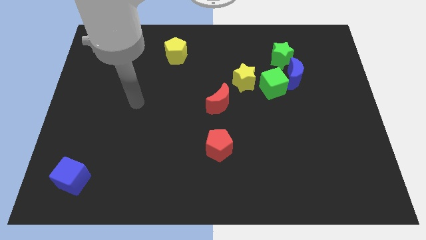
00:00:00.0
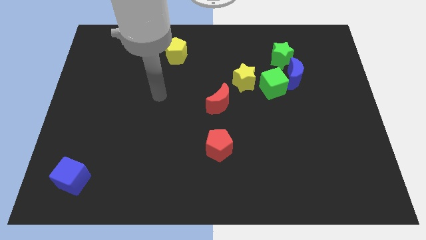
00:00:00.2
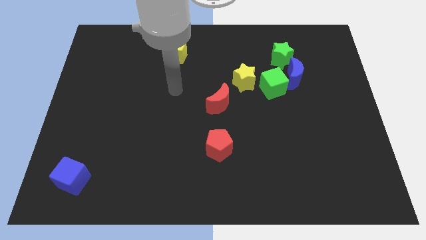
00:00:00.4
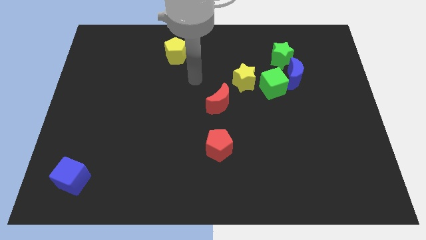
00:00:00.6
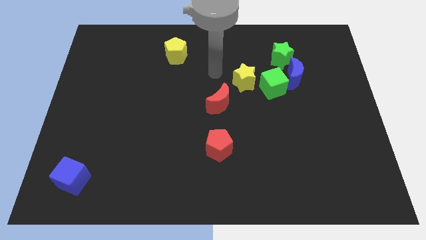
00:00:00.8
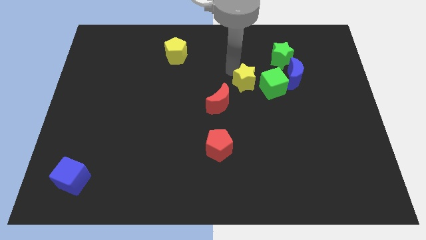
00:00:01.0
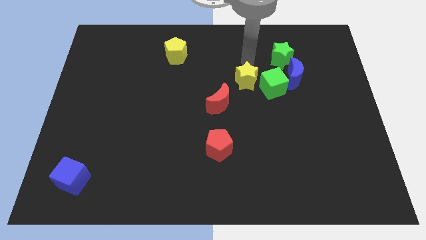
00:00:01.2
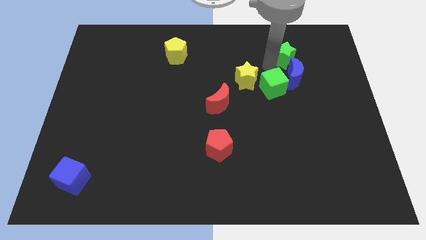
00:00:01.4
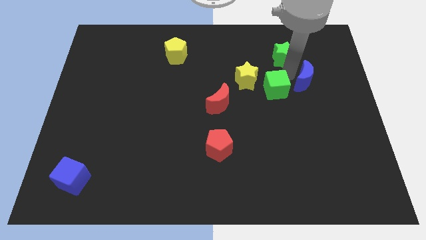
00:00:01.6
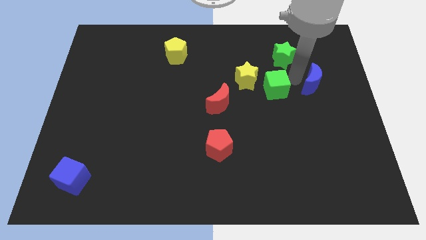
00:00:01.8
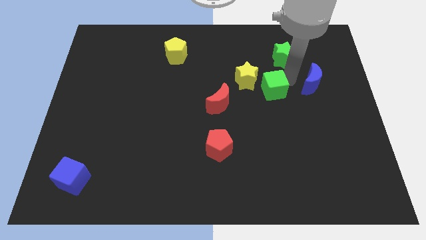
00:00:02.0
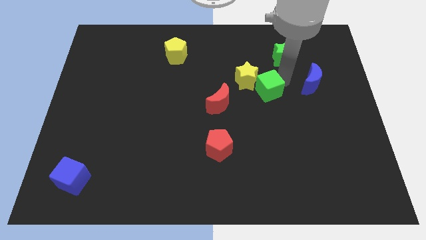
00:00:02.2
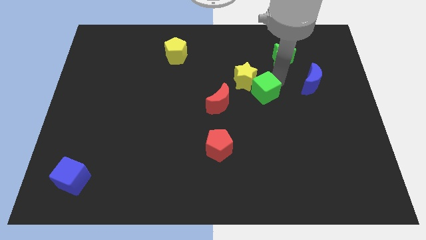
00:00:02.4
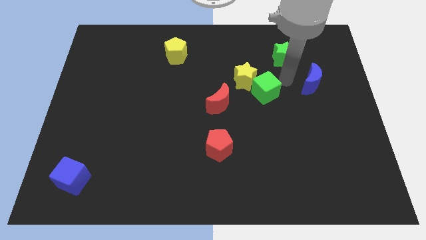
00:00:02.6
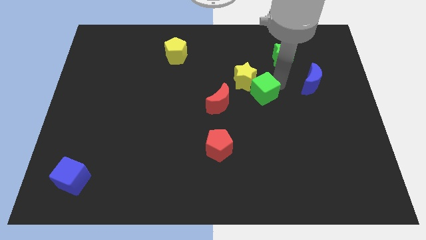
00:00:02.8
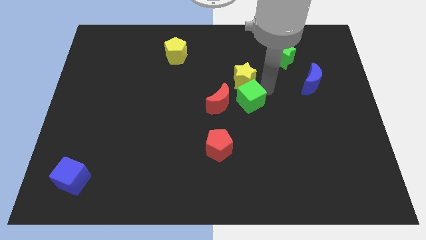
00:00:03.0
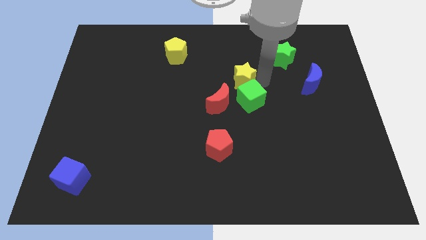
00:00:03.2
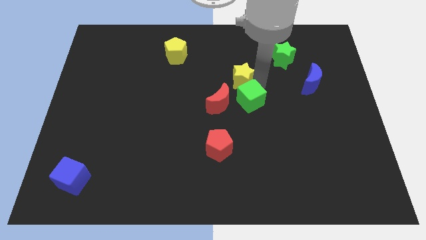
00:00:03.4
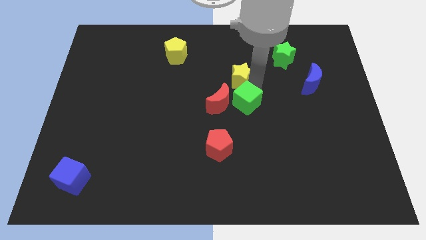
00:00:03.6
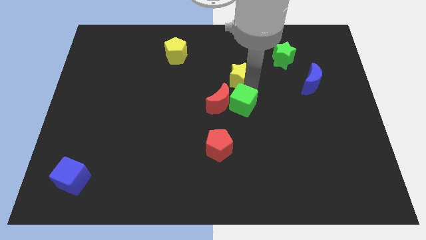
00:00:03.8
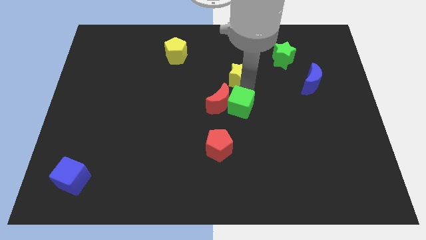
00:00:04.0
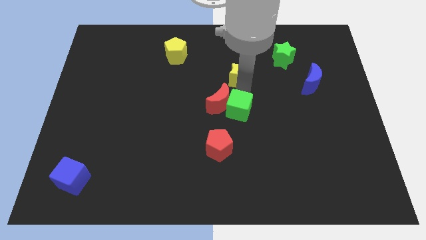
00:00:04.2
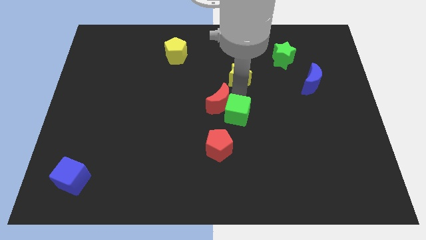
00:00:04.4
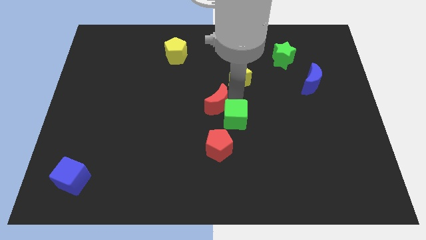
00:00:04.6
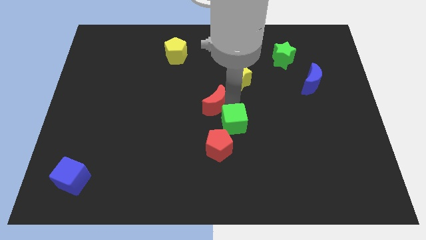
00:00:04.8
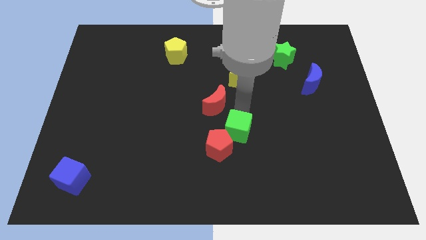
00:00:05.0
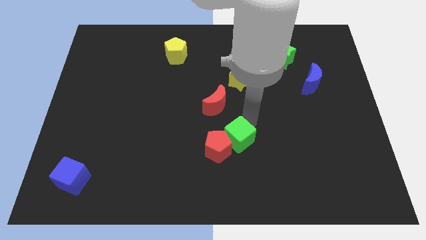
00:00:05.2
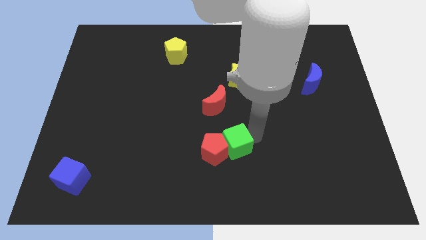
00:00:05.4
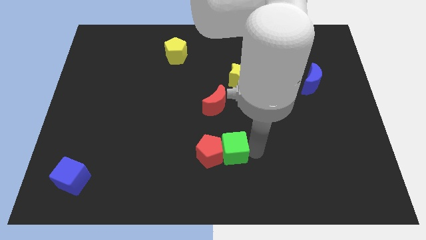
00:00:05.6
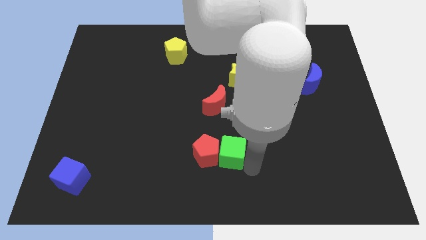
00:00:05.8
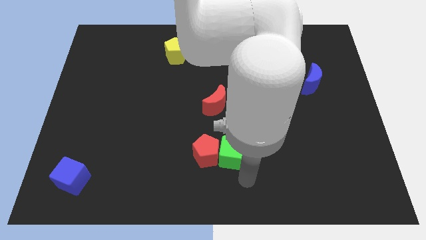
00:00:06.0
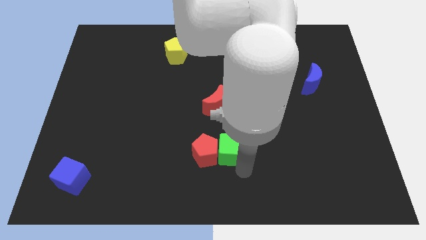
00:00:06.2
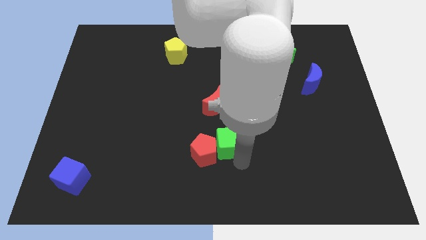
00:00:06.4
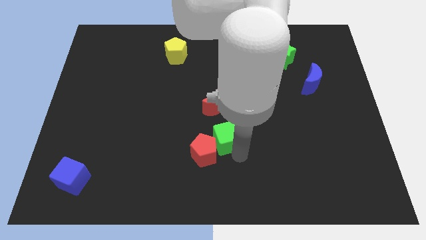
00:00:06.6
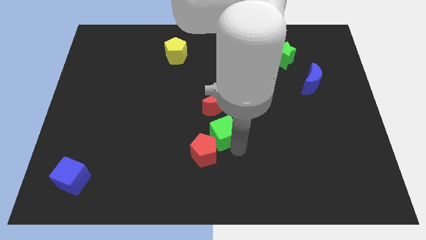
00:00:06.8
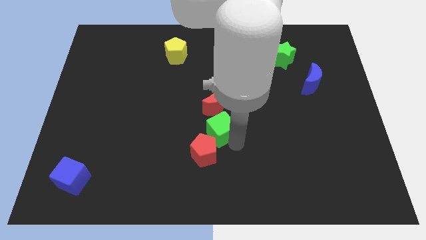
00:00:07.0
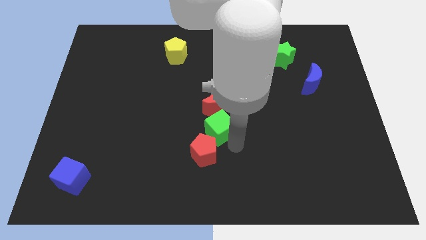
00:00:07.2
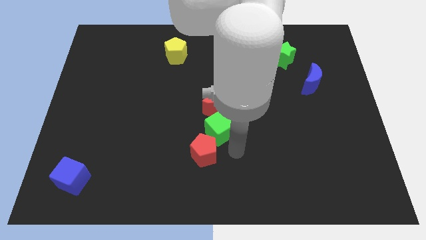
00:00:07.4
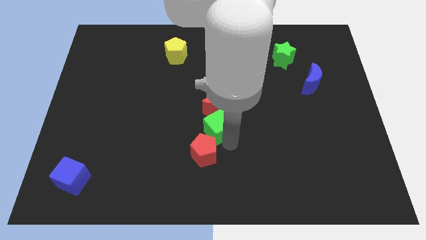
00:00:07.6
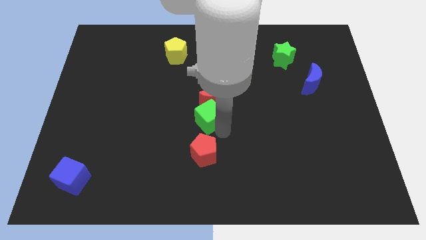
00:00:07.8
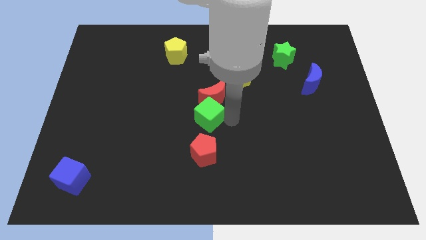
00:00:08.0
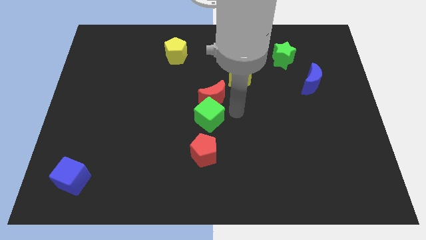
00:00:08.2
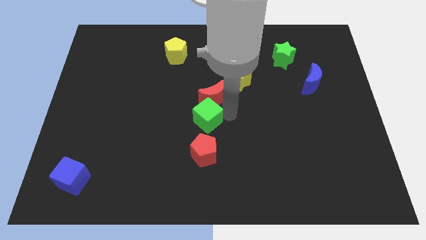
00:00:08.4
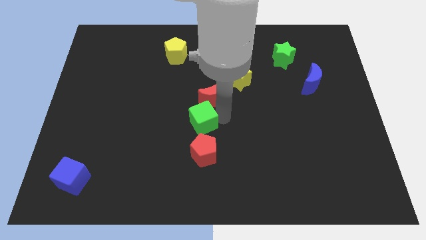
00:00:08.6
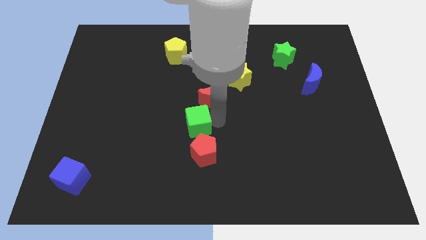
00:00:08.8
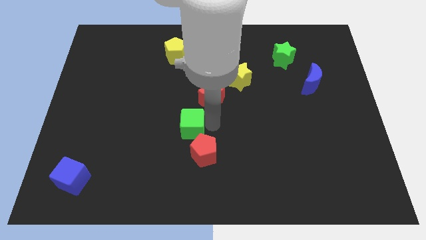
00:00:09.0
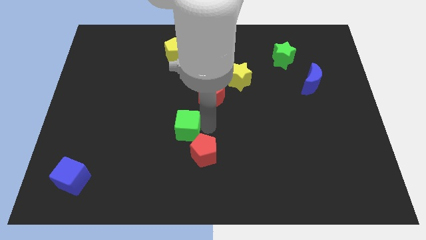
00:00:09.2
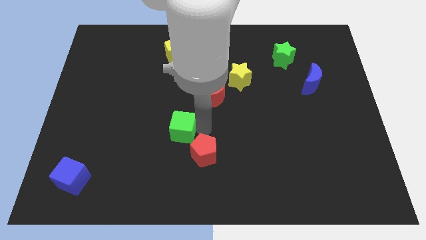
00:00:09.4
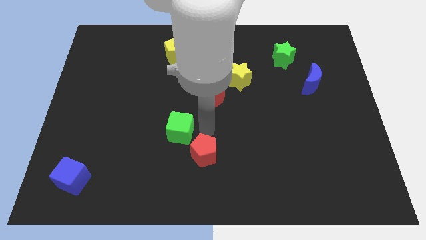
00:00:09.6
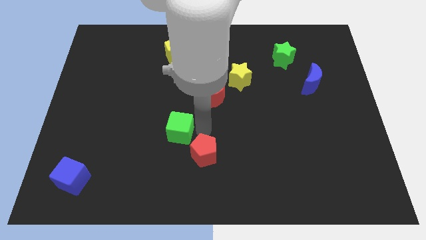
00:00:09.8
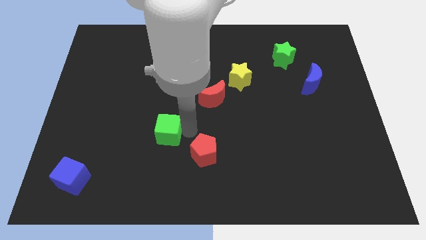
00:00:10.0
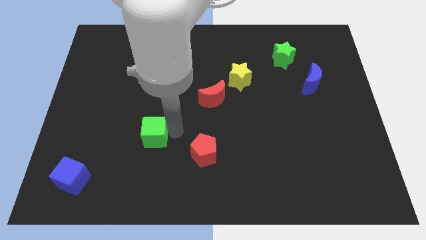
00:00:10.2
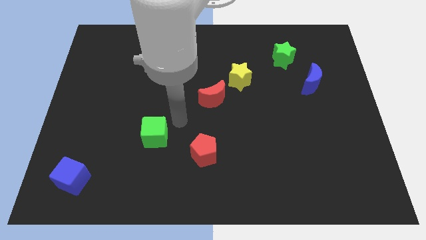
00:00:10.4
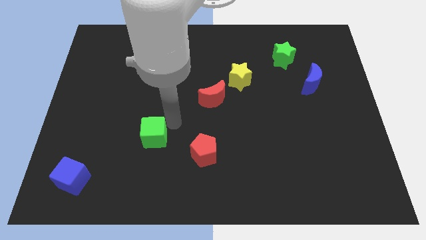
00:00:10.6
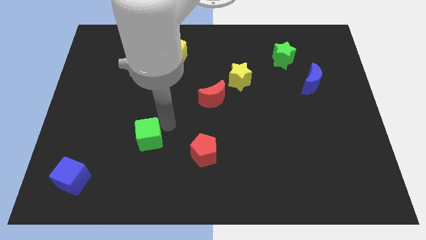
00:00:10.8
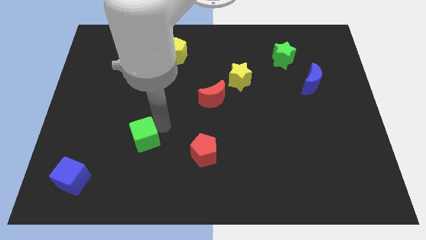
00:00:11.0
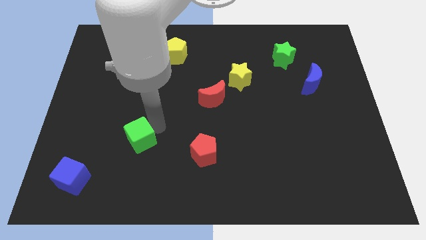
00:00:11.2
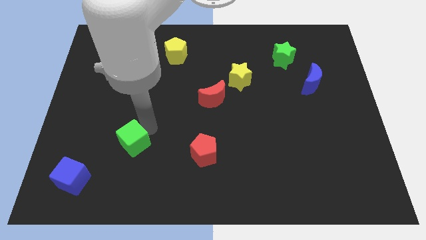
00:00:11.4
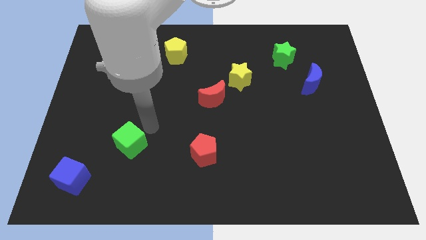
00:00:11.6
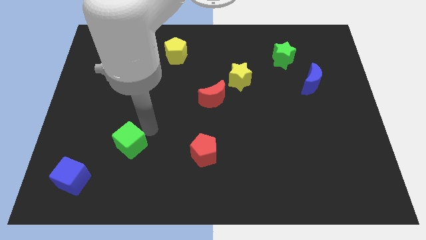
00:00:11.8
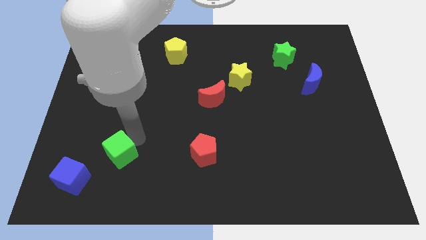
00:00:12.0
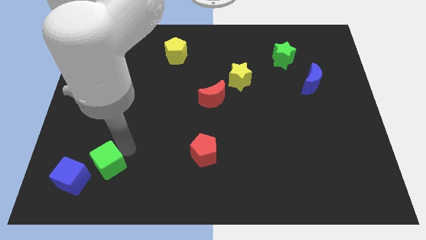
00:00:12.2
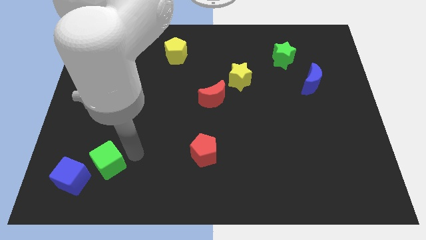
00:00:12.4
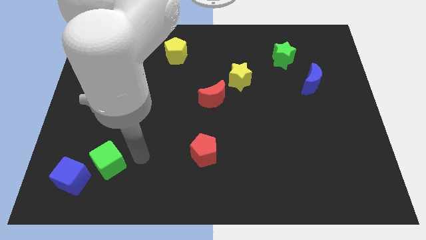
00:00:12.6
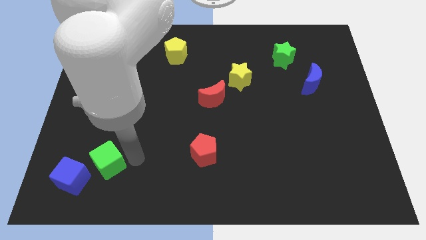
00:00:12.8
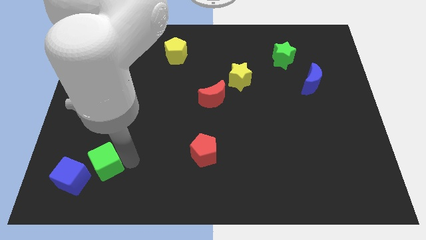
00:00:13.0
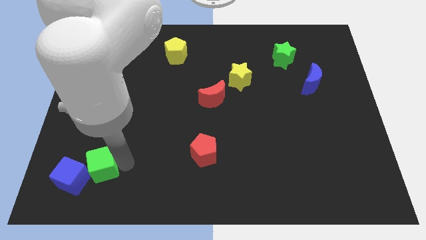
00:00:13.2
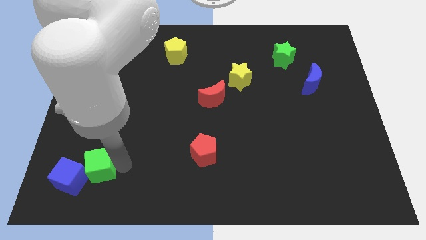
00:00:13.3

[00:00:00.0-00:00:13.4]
push the green cube next to the blue cube
